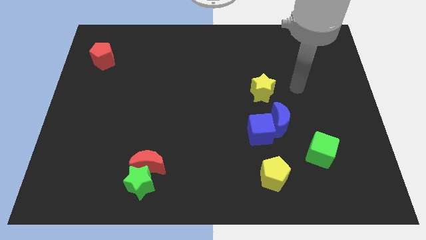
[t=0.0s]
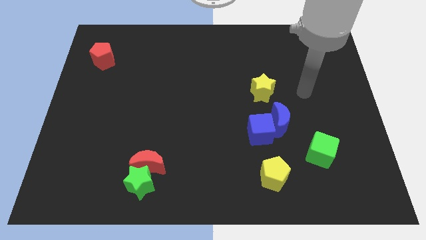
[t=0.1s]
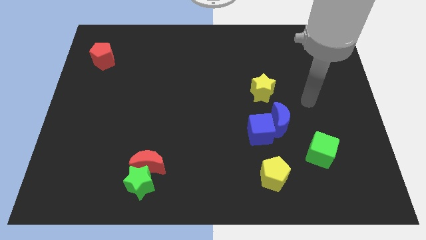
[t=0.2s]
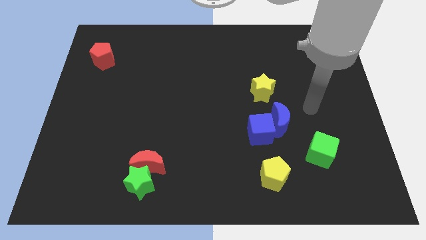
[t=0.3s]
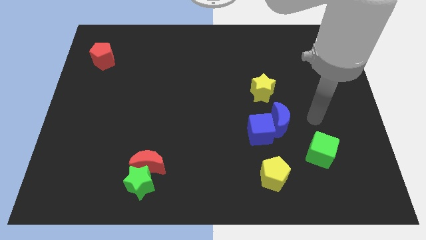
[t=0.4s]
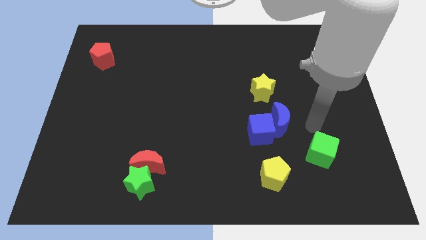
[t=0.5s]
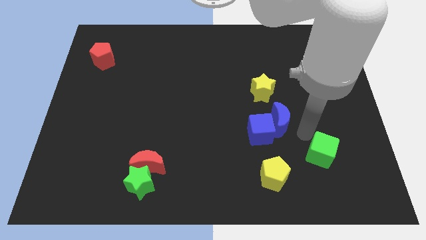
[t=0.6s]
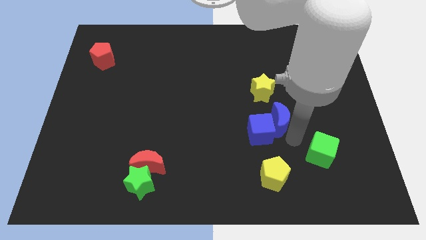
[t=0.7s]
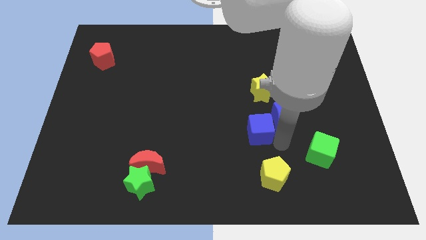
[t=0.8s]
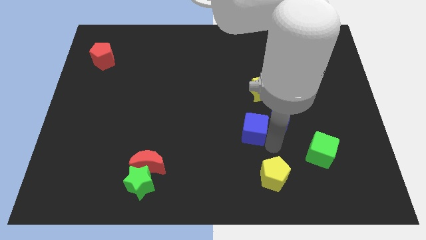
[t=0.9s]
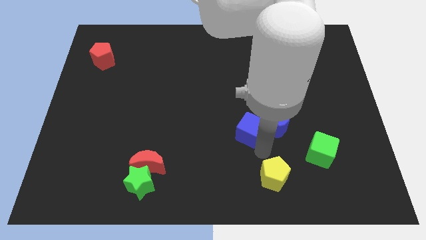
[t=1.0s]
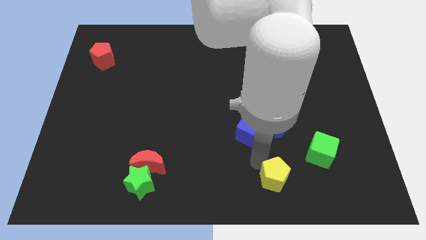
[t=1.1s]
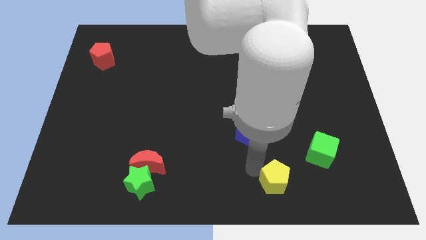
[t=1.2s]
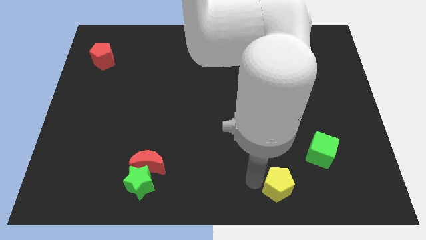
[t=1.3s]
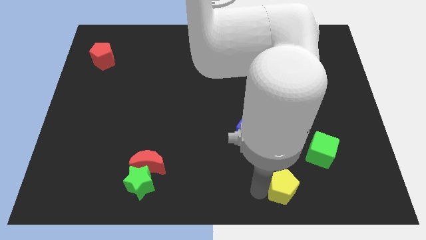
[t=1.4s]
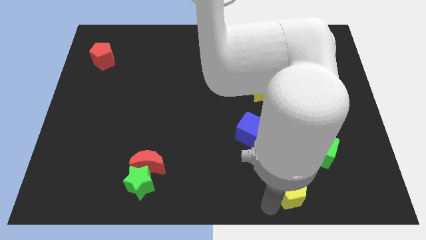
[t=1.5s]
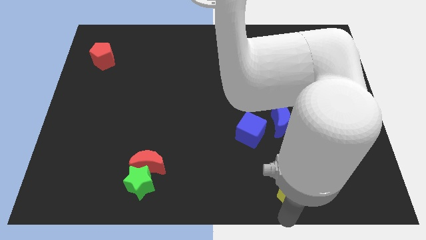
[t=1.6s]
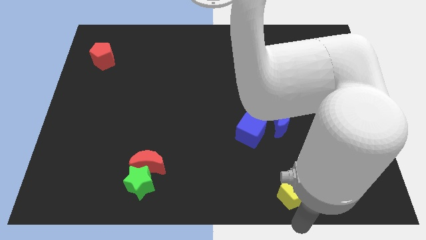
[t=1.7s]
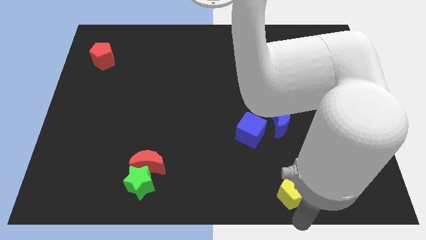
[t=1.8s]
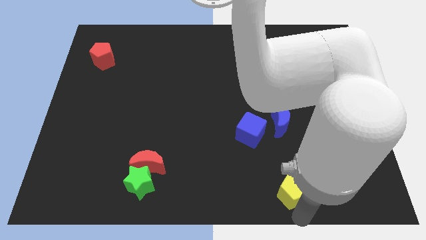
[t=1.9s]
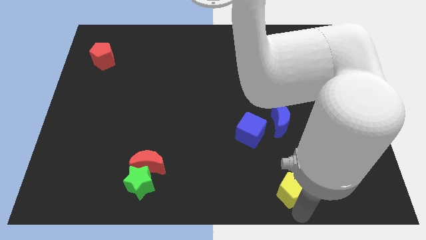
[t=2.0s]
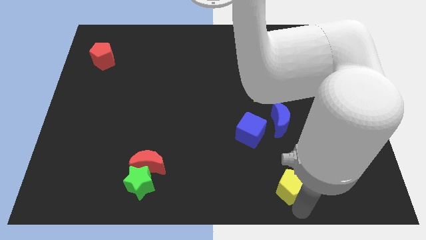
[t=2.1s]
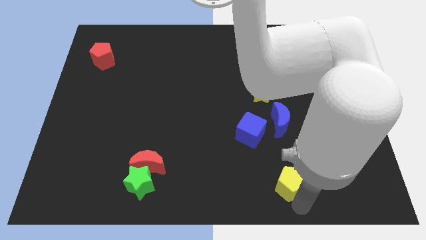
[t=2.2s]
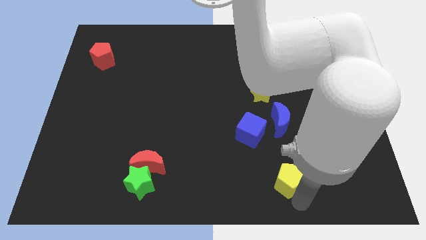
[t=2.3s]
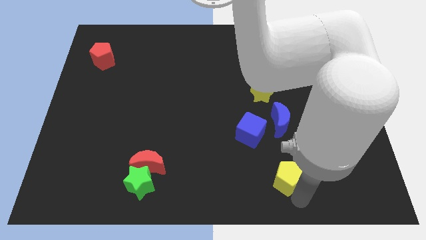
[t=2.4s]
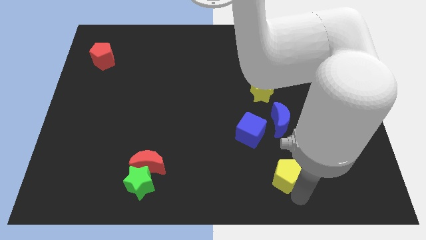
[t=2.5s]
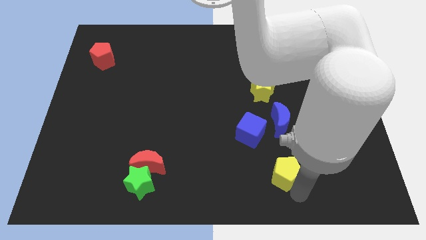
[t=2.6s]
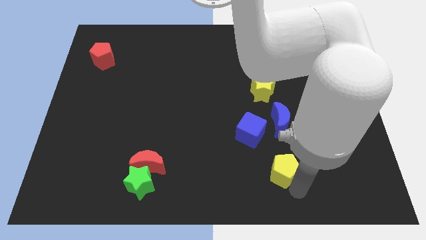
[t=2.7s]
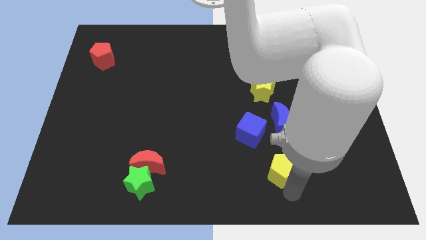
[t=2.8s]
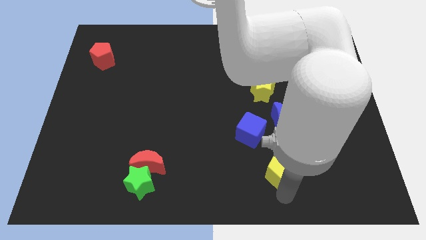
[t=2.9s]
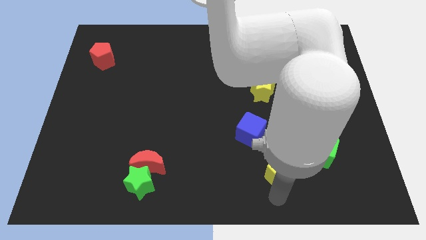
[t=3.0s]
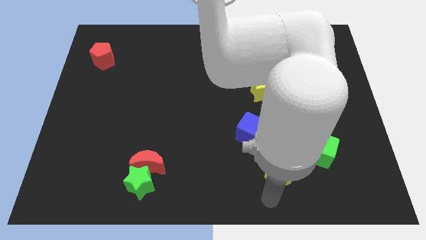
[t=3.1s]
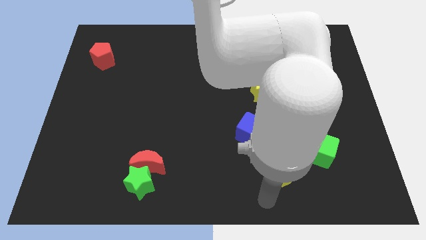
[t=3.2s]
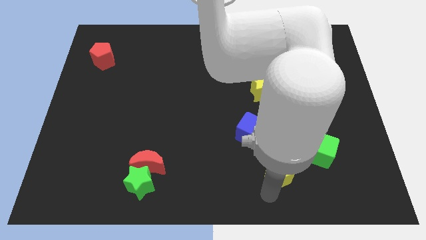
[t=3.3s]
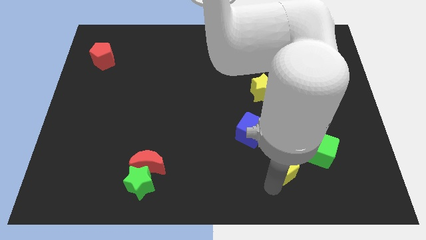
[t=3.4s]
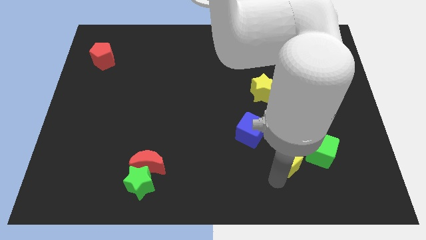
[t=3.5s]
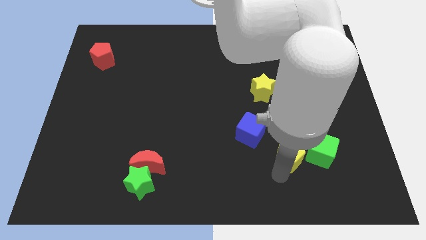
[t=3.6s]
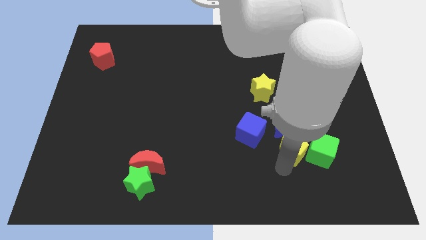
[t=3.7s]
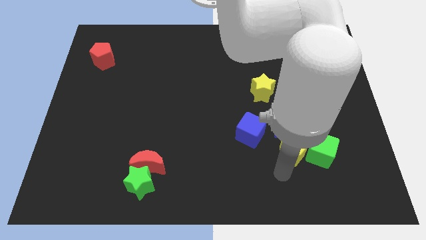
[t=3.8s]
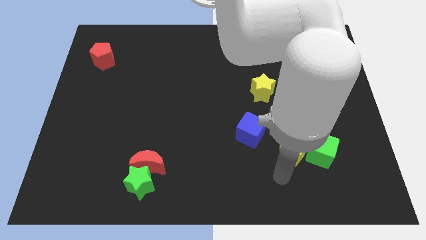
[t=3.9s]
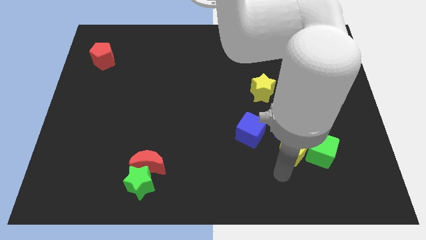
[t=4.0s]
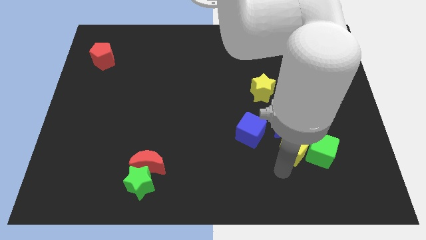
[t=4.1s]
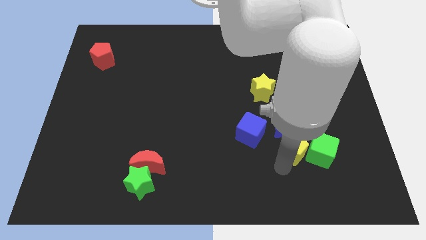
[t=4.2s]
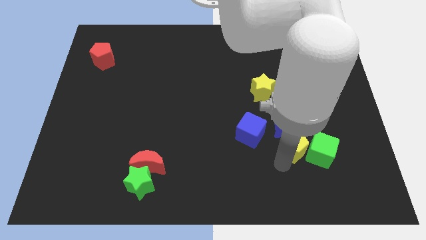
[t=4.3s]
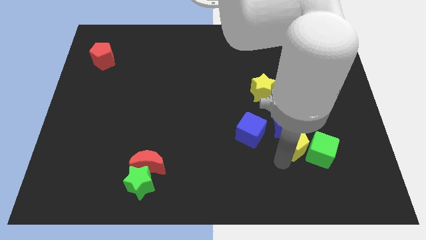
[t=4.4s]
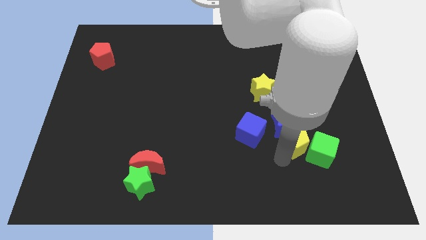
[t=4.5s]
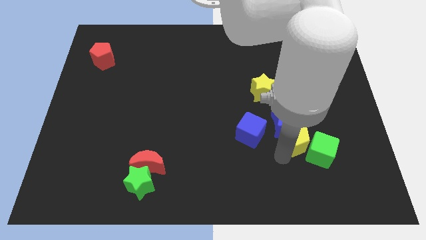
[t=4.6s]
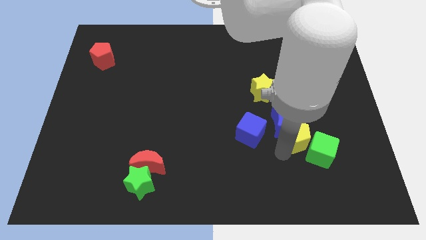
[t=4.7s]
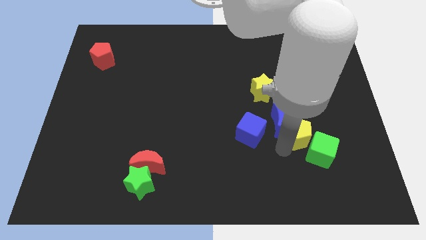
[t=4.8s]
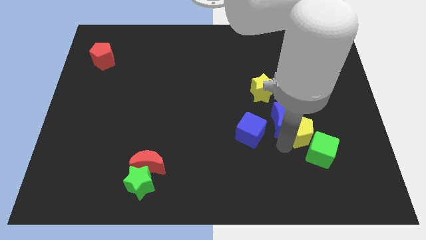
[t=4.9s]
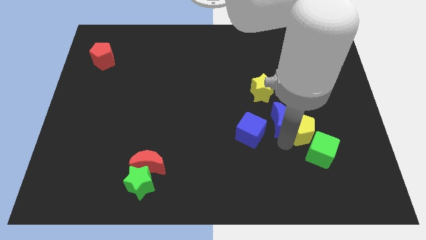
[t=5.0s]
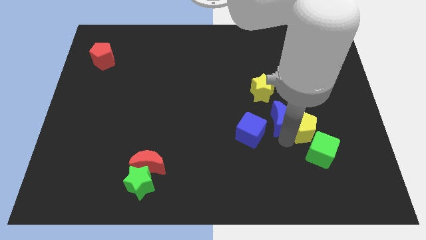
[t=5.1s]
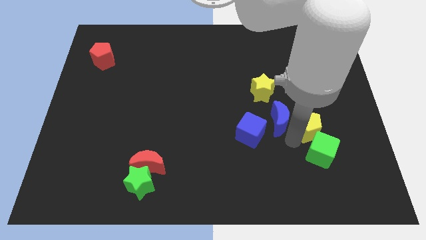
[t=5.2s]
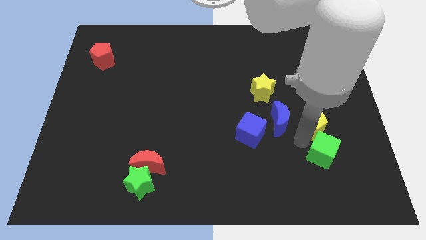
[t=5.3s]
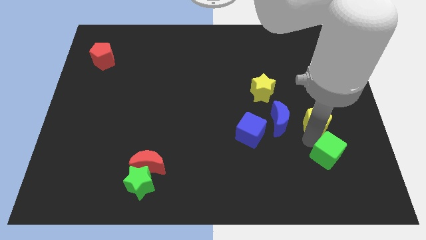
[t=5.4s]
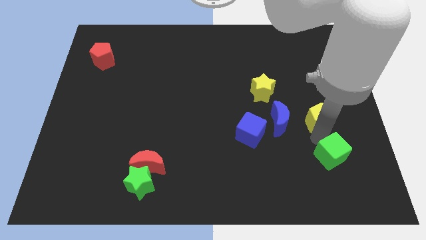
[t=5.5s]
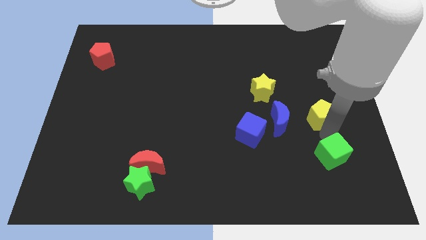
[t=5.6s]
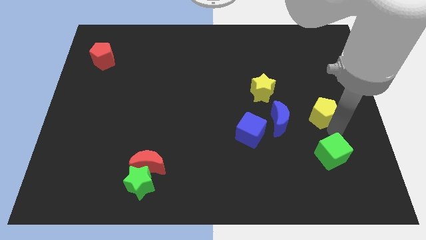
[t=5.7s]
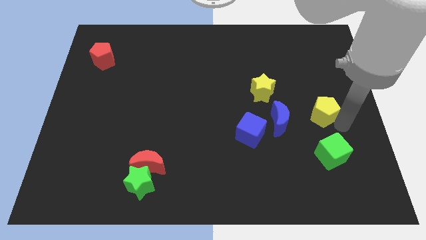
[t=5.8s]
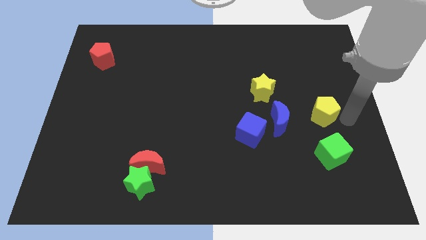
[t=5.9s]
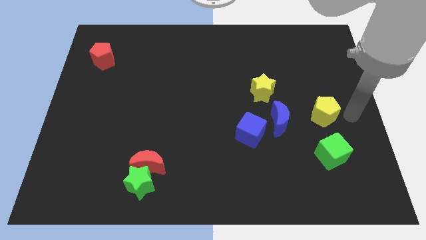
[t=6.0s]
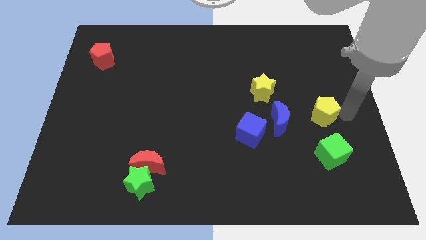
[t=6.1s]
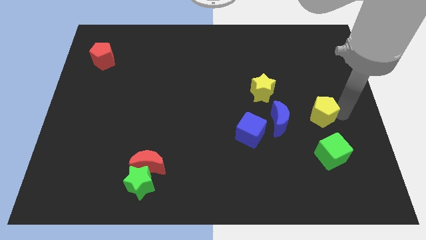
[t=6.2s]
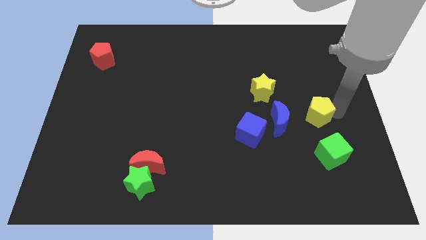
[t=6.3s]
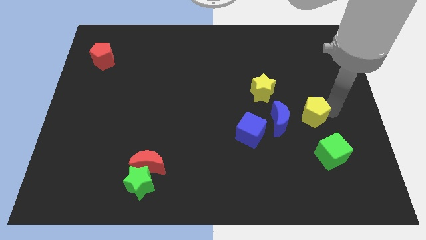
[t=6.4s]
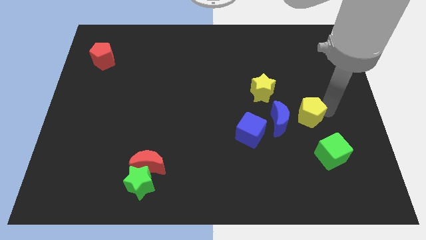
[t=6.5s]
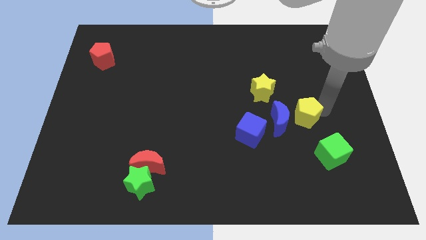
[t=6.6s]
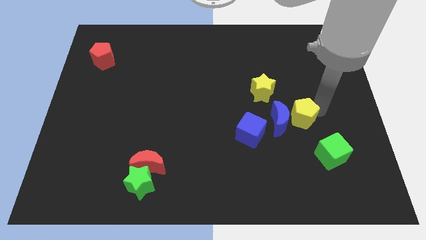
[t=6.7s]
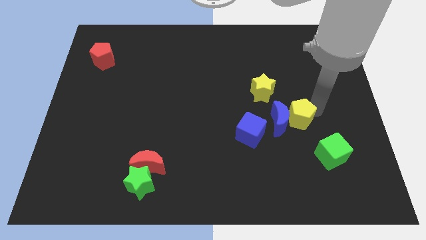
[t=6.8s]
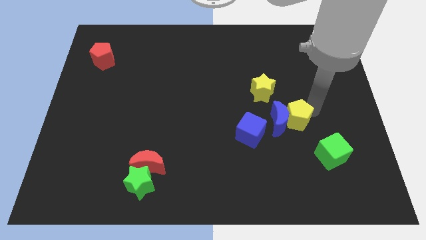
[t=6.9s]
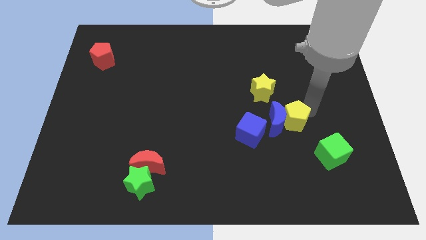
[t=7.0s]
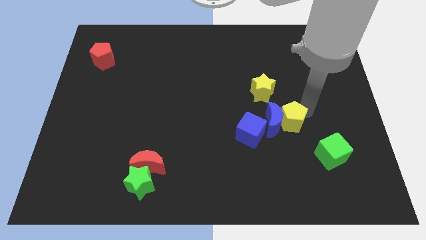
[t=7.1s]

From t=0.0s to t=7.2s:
slide the yellow pentagon to the top right side of the blue cube
